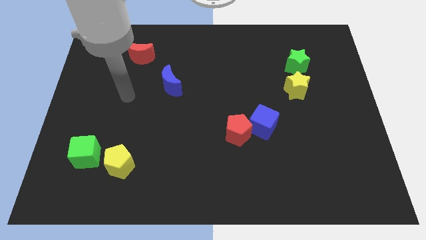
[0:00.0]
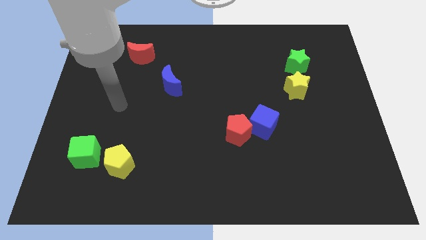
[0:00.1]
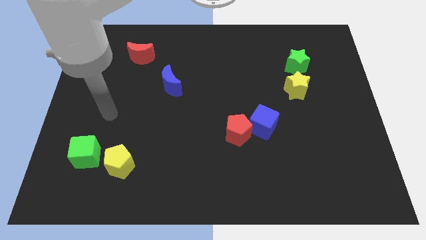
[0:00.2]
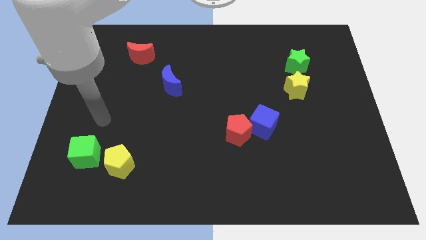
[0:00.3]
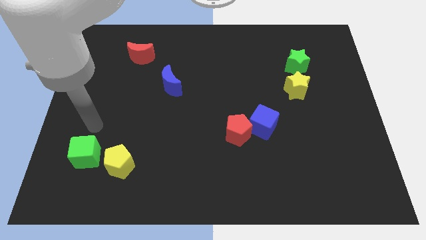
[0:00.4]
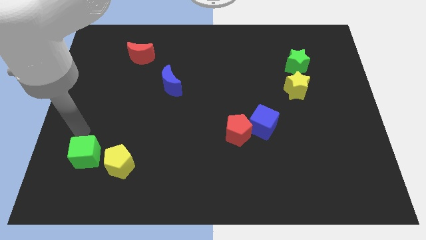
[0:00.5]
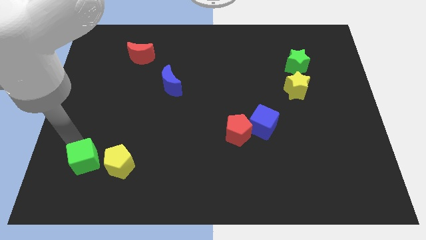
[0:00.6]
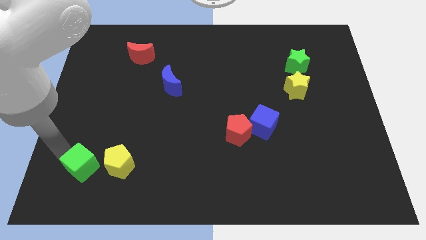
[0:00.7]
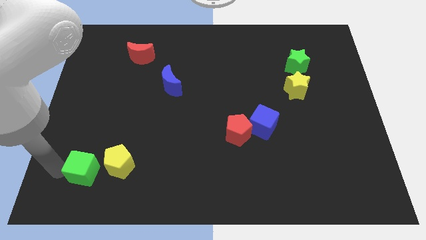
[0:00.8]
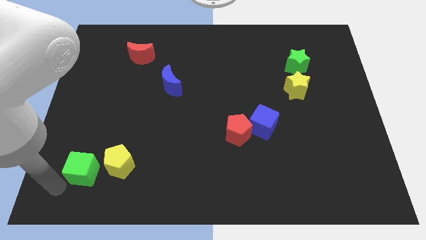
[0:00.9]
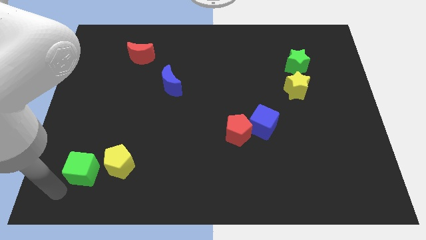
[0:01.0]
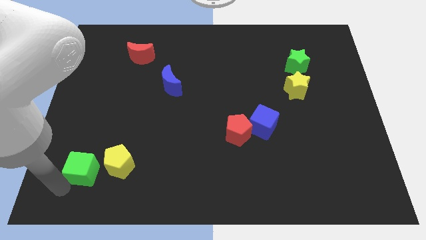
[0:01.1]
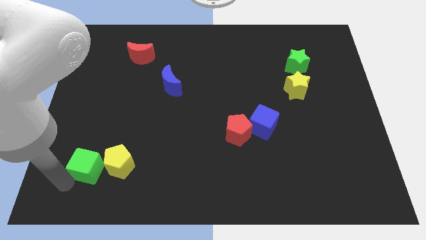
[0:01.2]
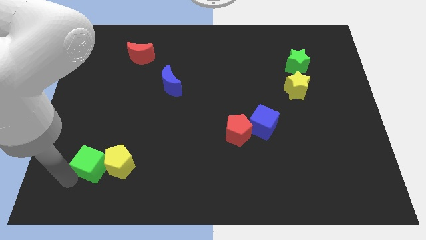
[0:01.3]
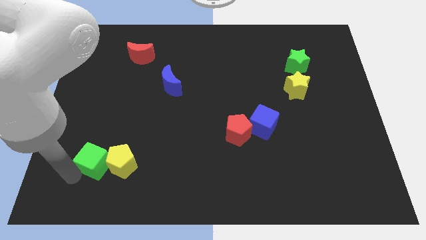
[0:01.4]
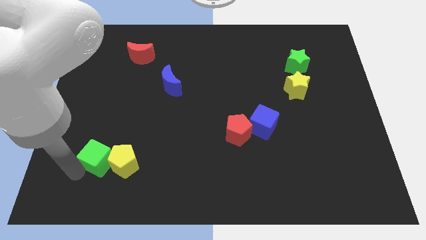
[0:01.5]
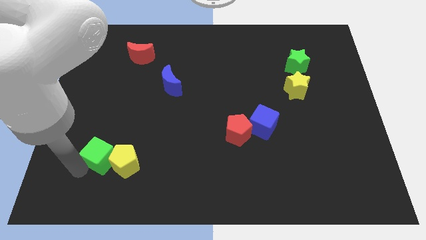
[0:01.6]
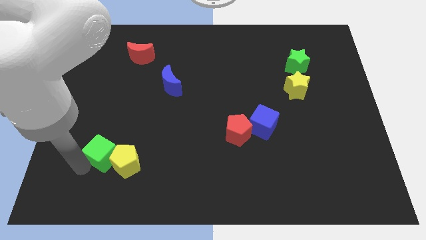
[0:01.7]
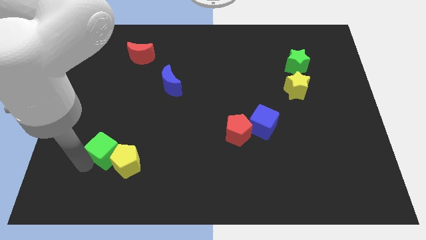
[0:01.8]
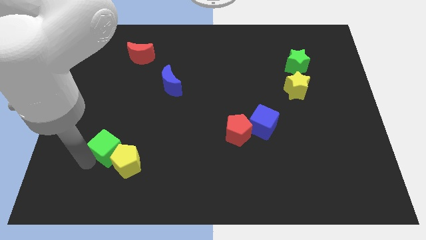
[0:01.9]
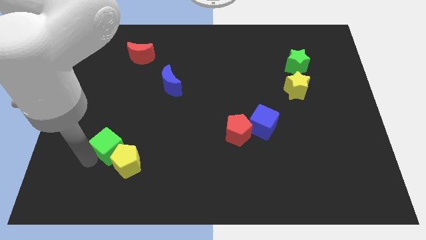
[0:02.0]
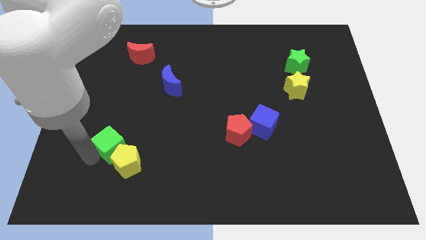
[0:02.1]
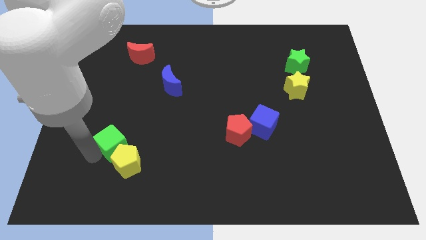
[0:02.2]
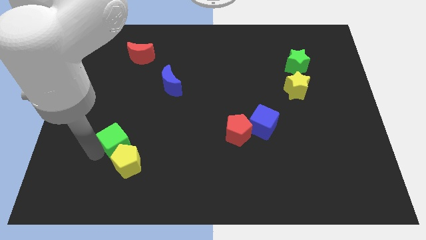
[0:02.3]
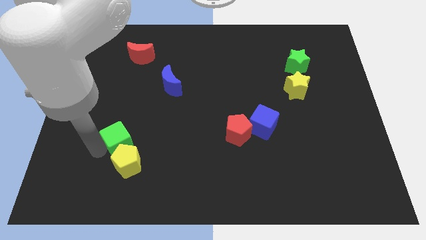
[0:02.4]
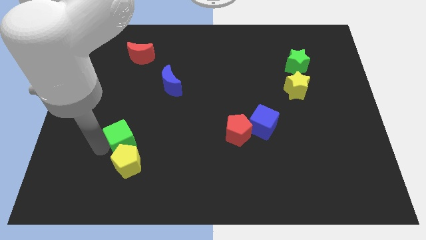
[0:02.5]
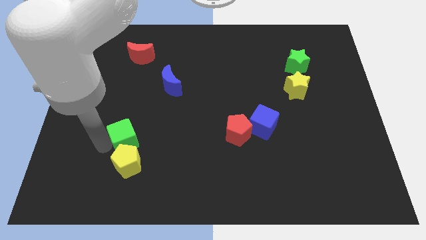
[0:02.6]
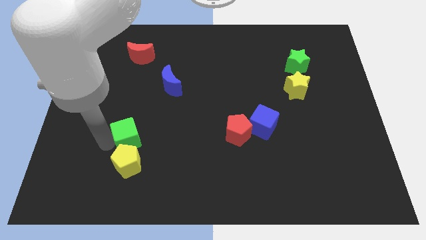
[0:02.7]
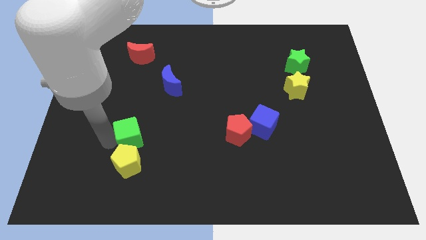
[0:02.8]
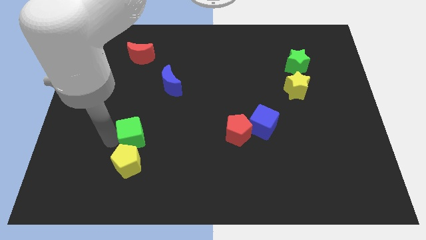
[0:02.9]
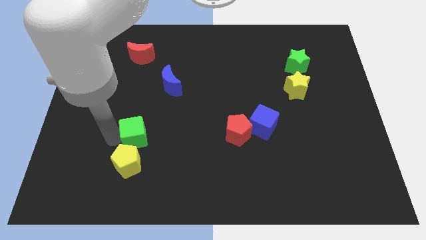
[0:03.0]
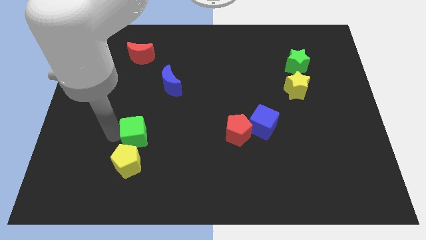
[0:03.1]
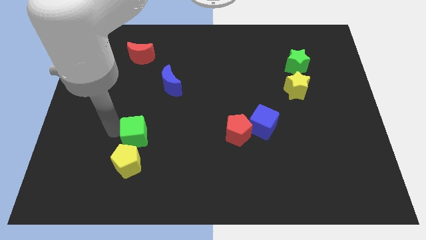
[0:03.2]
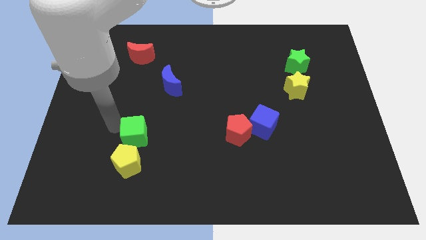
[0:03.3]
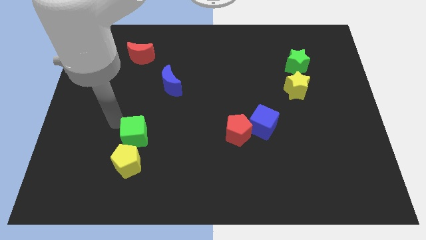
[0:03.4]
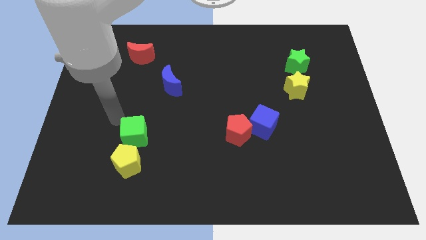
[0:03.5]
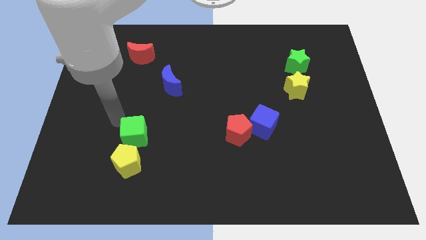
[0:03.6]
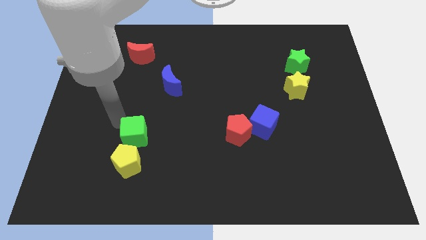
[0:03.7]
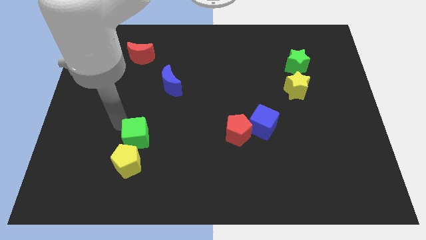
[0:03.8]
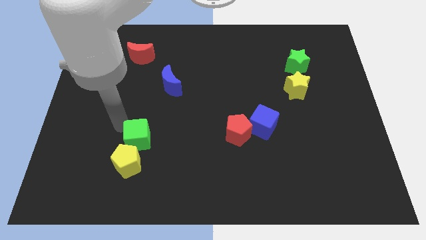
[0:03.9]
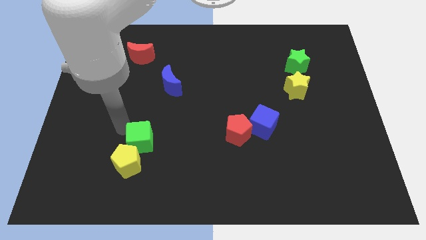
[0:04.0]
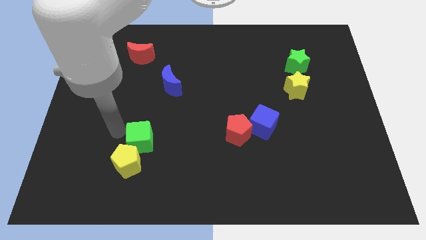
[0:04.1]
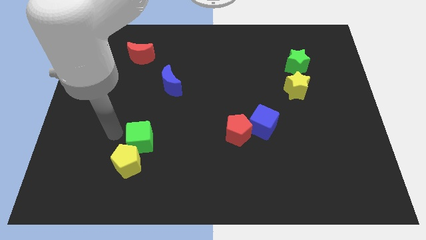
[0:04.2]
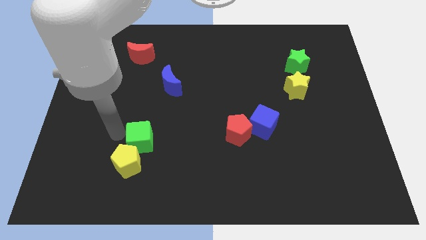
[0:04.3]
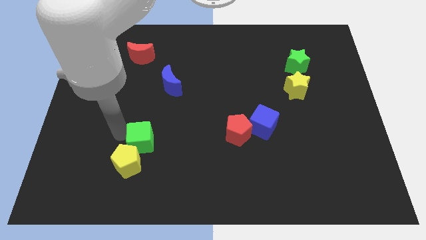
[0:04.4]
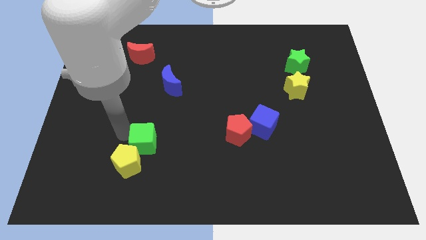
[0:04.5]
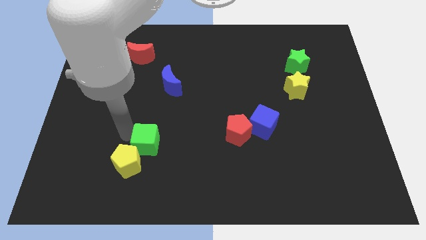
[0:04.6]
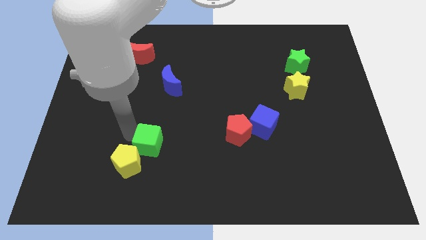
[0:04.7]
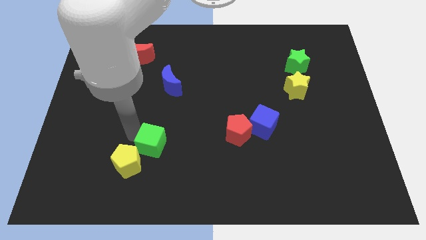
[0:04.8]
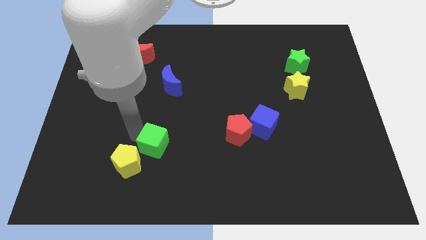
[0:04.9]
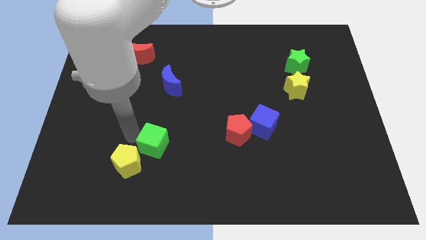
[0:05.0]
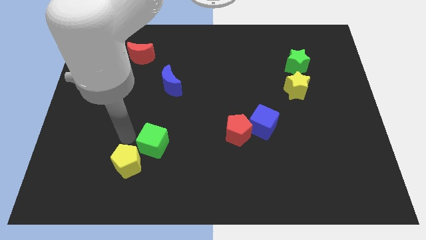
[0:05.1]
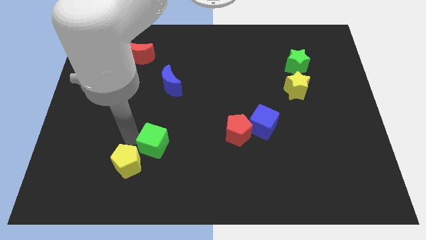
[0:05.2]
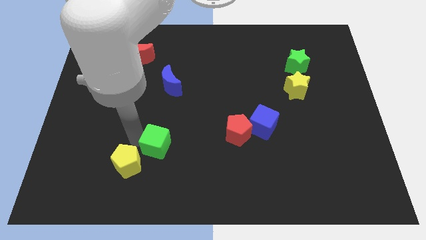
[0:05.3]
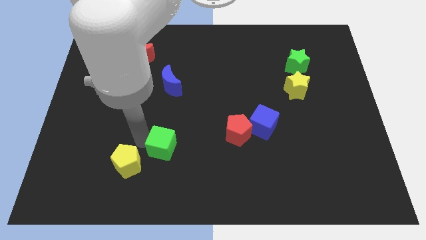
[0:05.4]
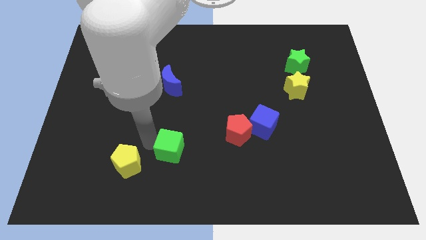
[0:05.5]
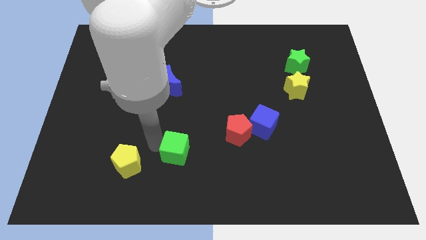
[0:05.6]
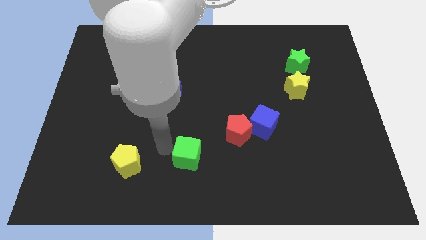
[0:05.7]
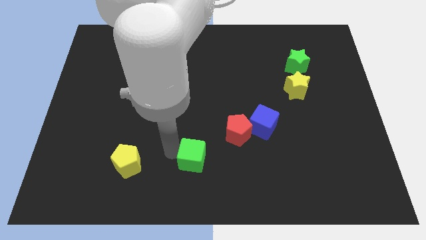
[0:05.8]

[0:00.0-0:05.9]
put the green cube to the bottom left side of the red pentagon

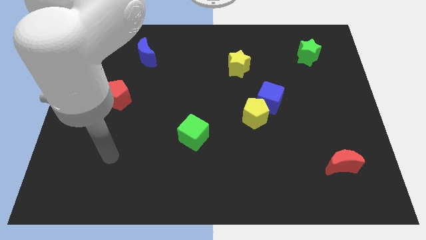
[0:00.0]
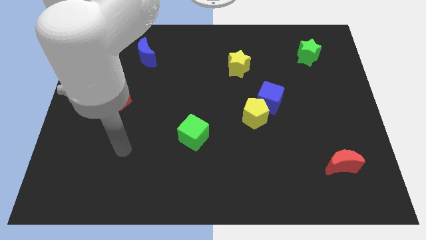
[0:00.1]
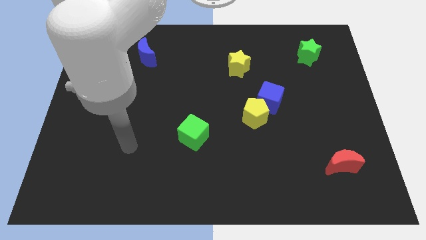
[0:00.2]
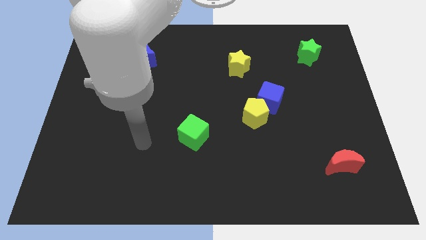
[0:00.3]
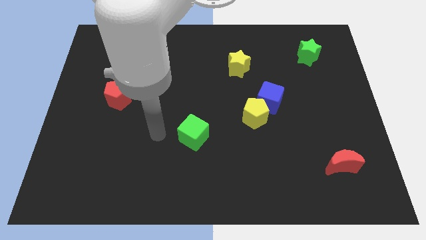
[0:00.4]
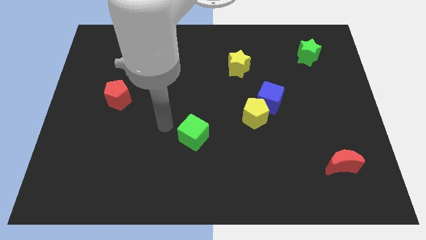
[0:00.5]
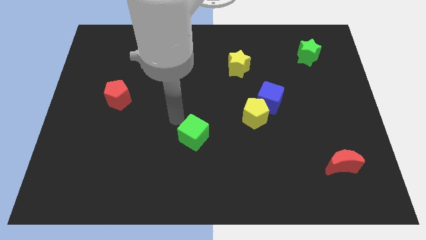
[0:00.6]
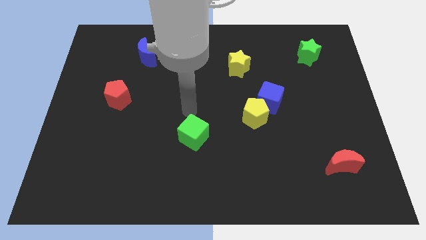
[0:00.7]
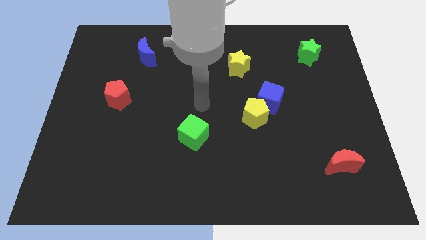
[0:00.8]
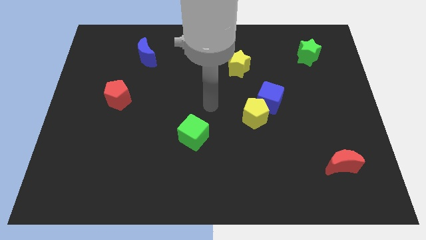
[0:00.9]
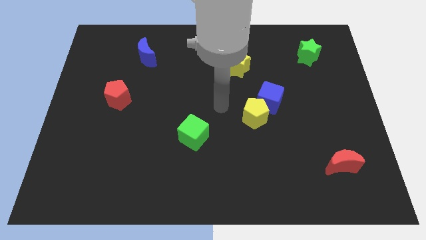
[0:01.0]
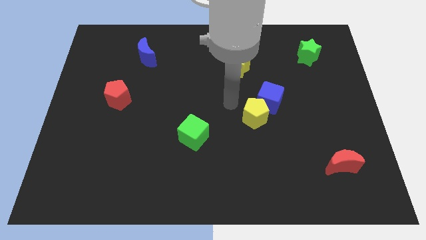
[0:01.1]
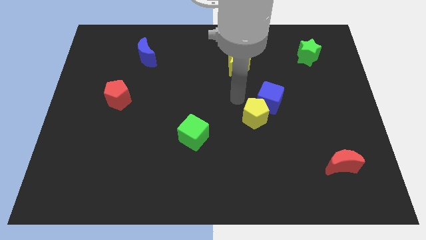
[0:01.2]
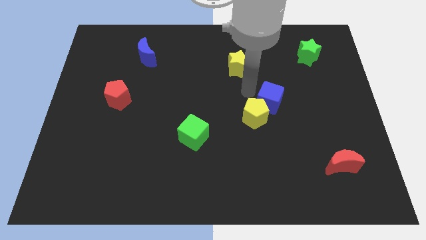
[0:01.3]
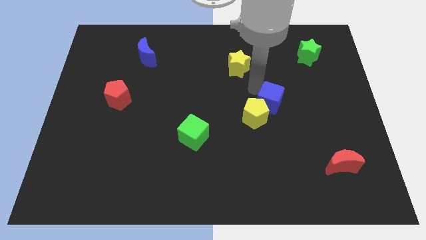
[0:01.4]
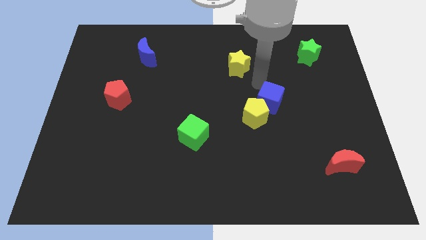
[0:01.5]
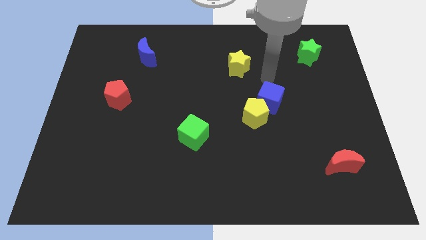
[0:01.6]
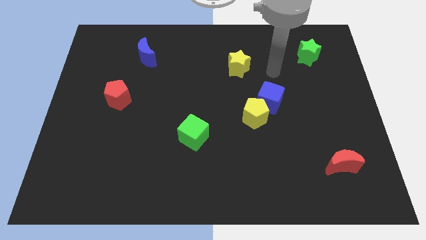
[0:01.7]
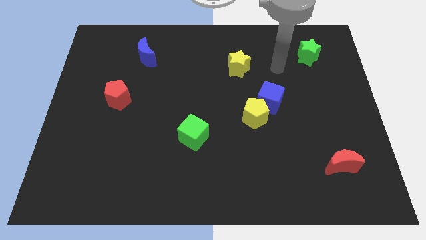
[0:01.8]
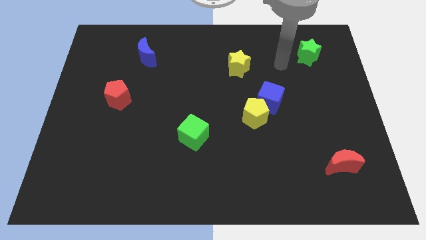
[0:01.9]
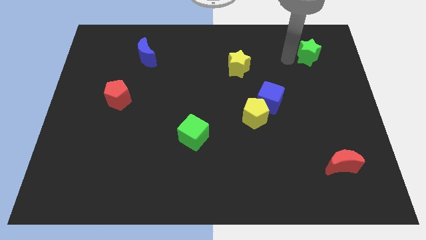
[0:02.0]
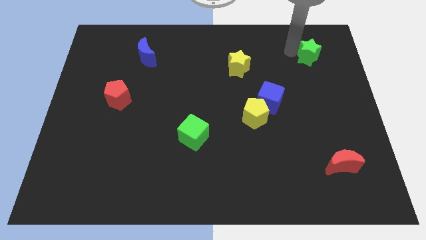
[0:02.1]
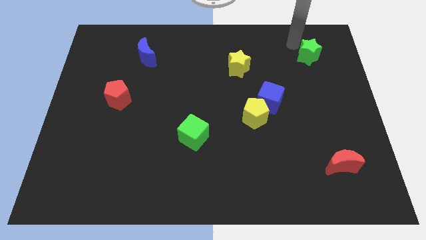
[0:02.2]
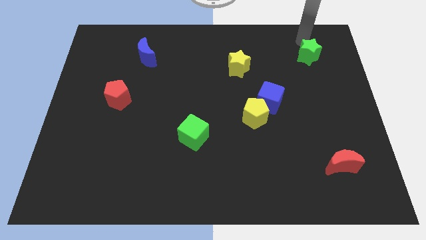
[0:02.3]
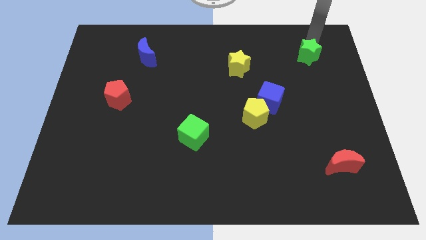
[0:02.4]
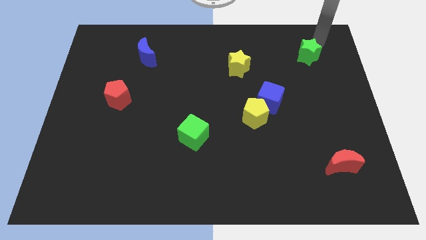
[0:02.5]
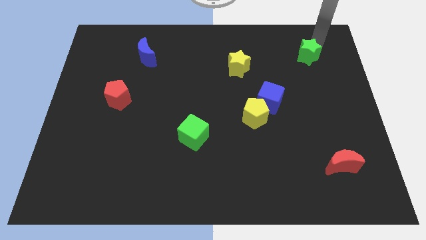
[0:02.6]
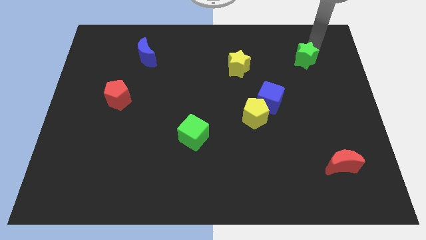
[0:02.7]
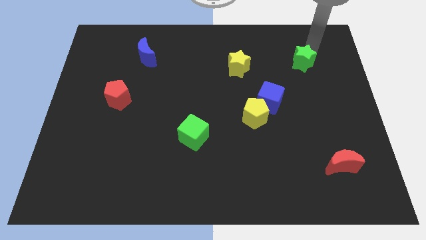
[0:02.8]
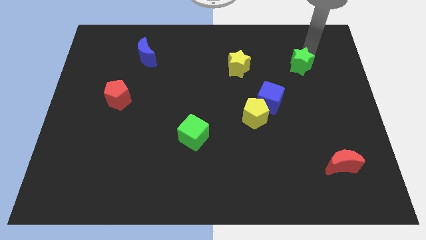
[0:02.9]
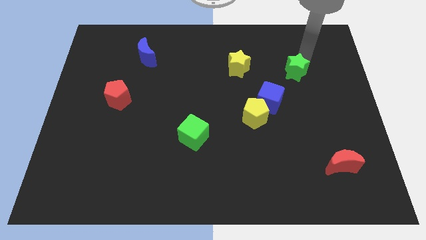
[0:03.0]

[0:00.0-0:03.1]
move the green star to the top right of the blue cube
